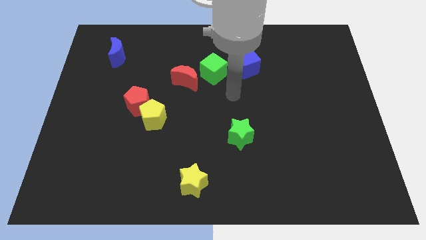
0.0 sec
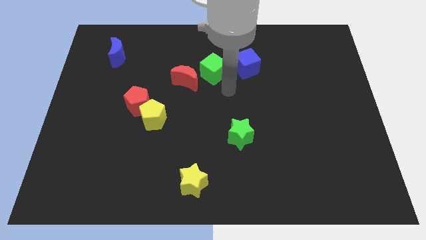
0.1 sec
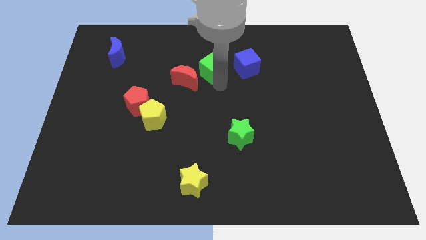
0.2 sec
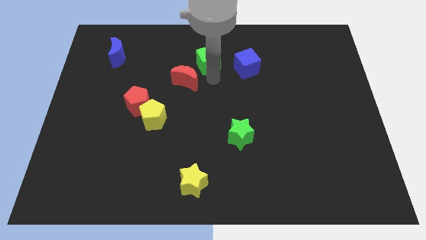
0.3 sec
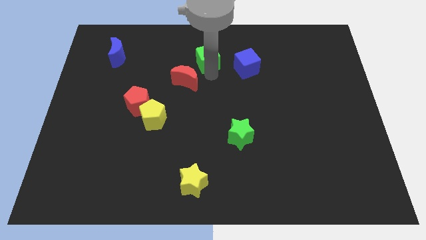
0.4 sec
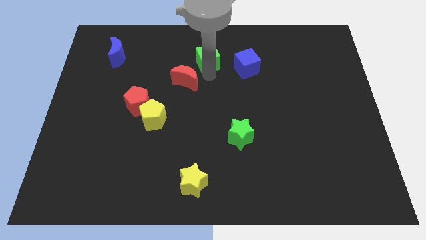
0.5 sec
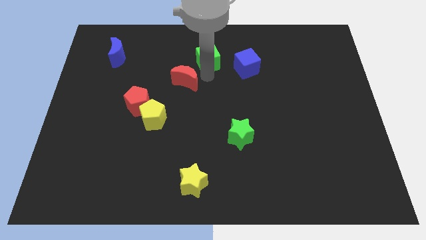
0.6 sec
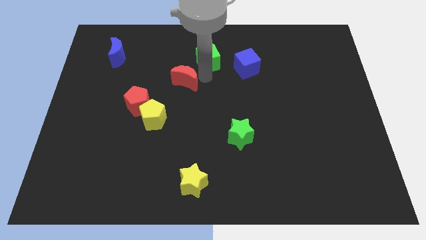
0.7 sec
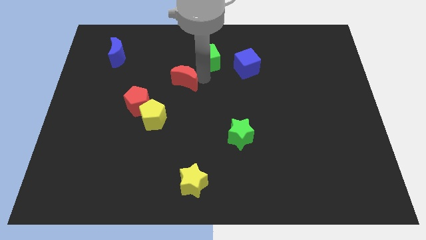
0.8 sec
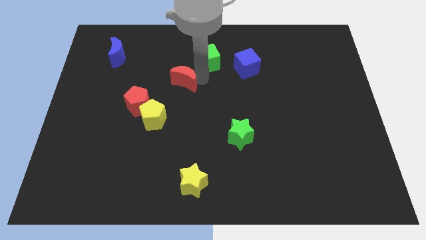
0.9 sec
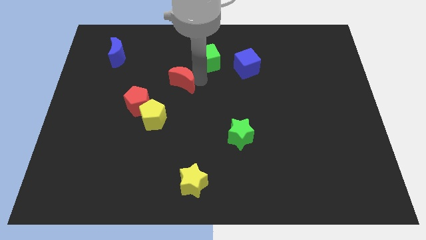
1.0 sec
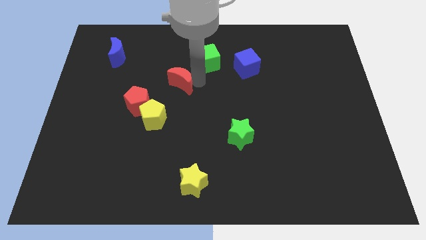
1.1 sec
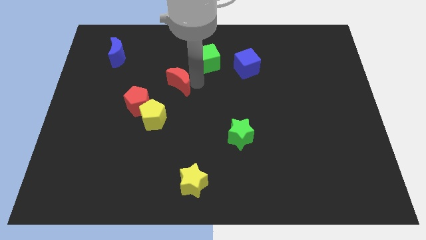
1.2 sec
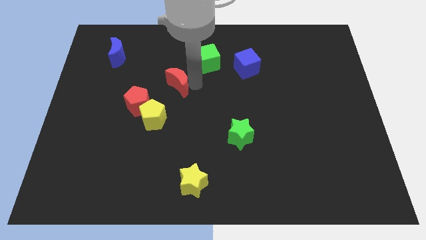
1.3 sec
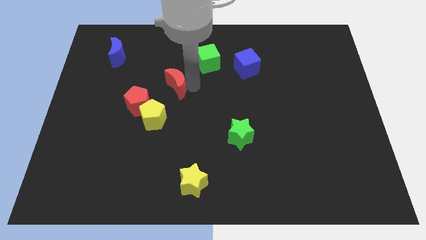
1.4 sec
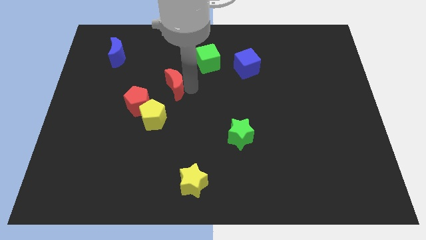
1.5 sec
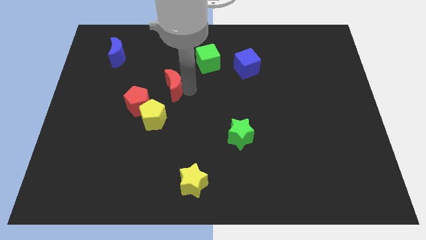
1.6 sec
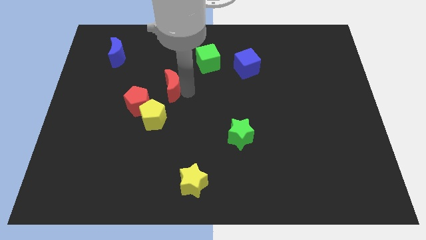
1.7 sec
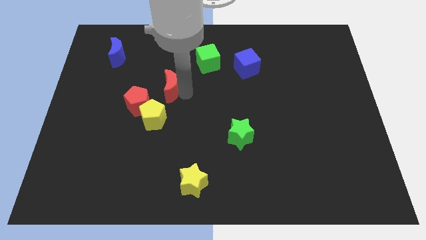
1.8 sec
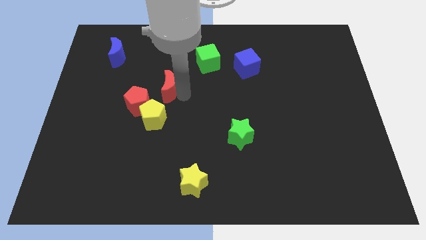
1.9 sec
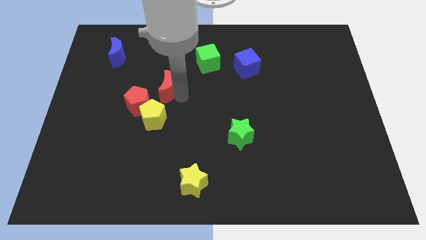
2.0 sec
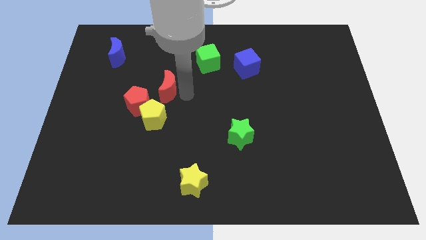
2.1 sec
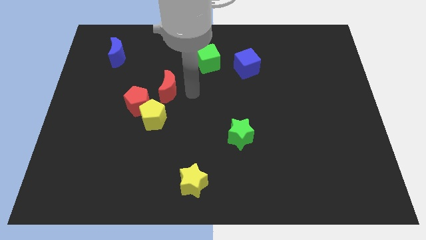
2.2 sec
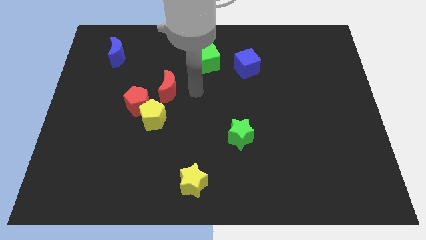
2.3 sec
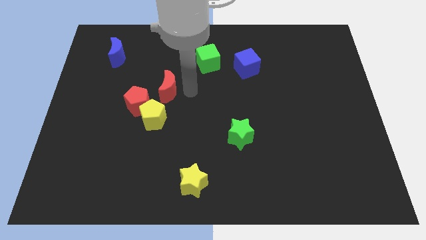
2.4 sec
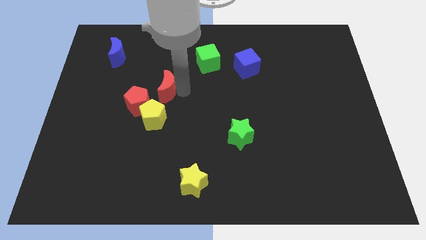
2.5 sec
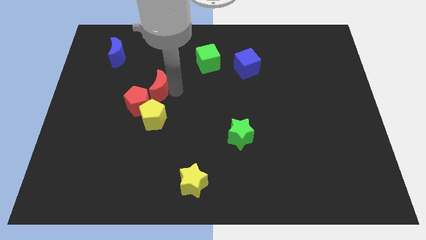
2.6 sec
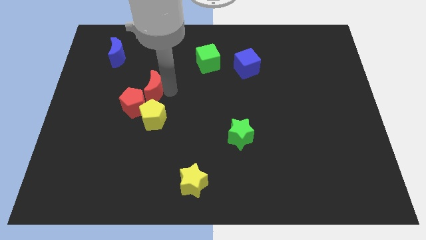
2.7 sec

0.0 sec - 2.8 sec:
push the red moon somewhat downwards and then to the left

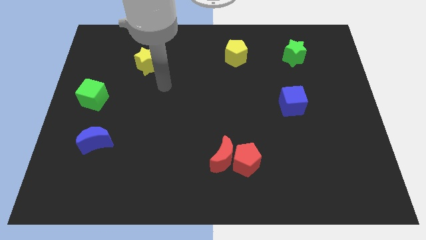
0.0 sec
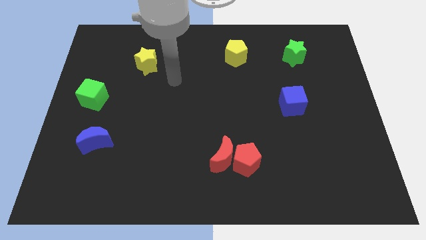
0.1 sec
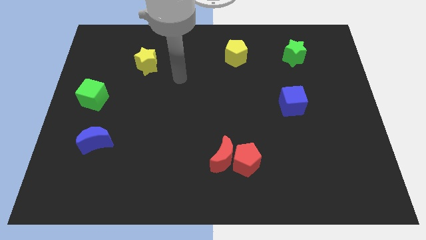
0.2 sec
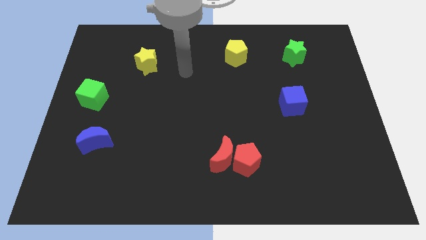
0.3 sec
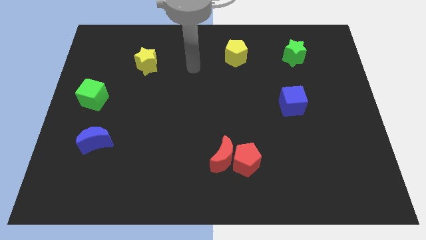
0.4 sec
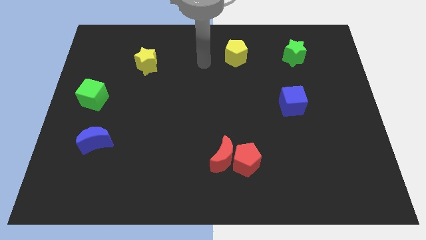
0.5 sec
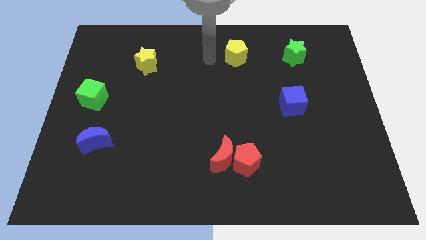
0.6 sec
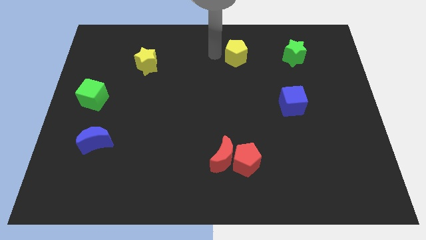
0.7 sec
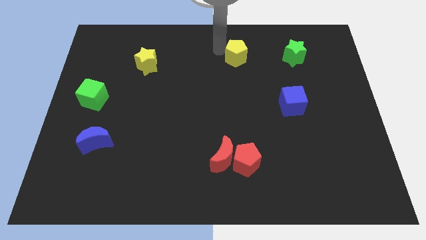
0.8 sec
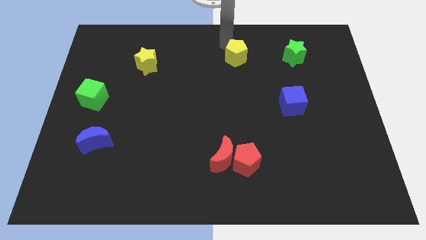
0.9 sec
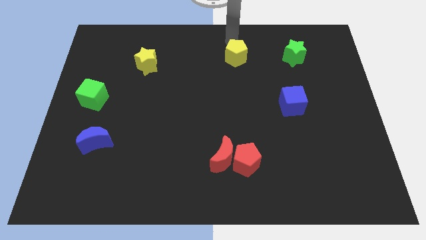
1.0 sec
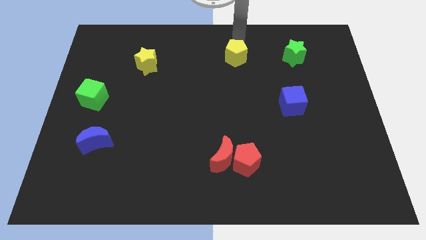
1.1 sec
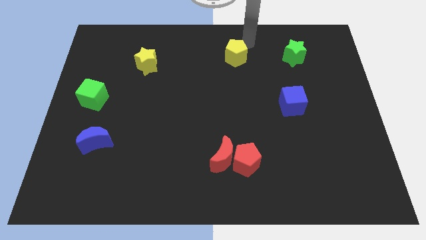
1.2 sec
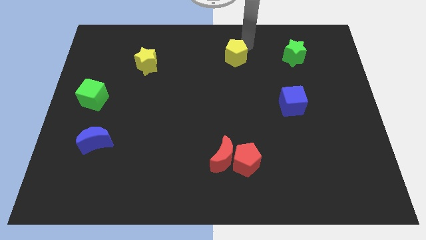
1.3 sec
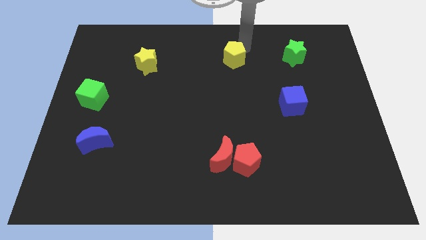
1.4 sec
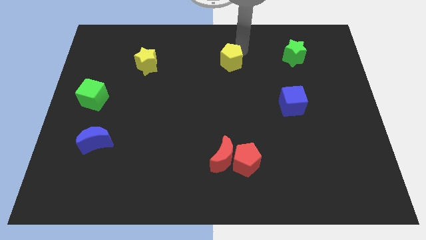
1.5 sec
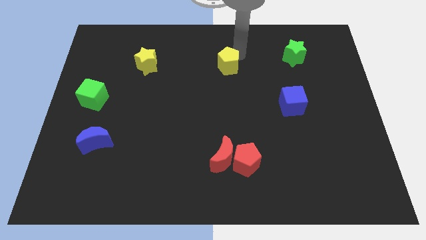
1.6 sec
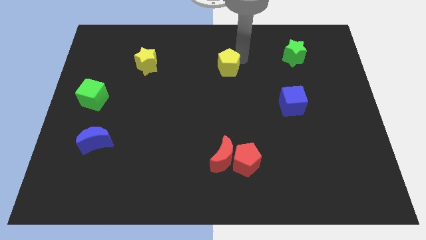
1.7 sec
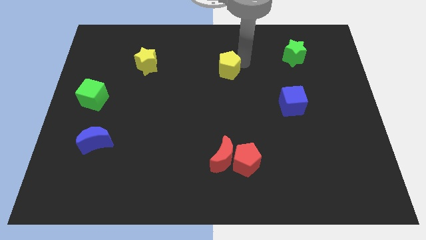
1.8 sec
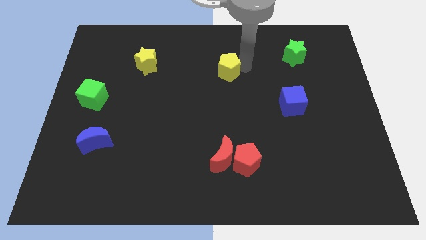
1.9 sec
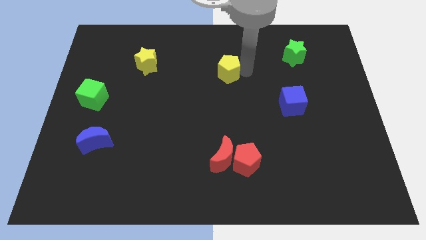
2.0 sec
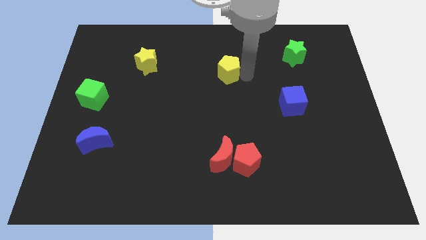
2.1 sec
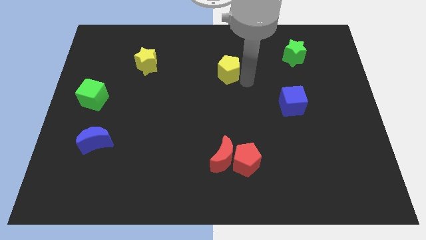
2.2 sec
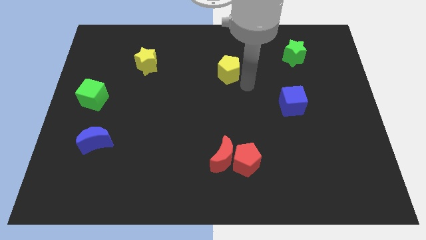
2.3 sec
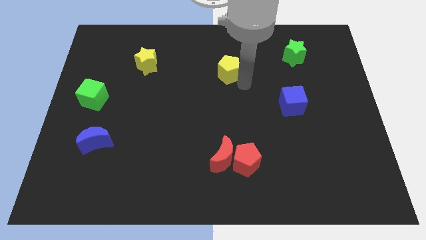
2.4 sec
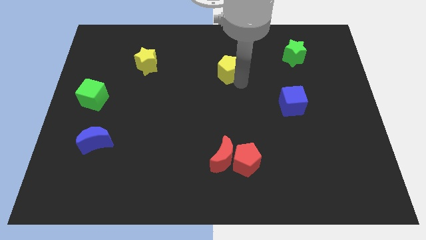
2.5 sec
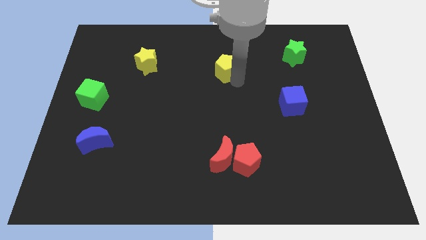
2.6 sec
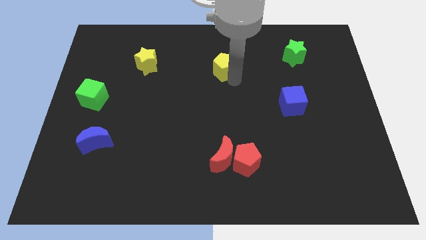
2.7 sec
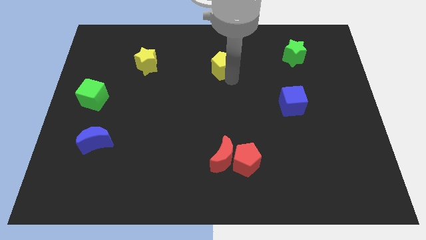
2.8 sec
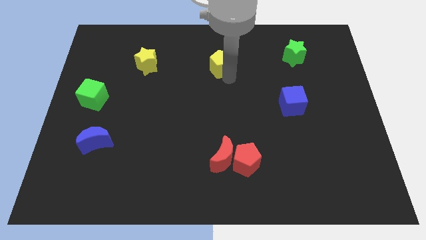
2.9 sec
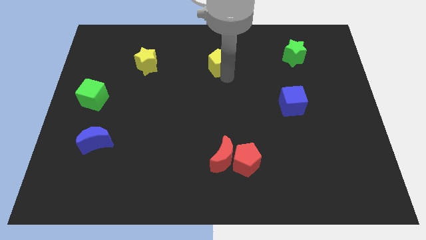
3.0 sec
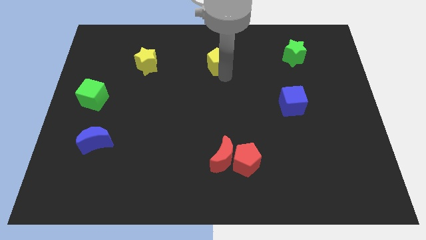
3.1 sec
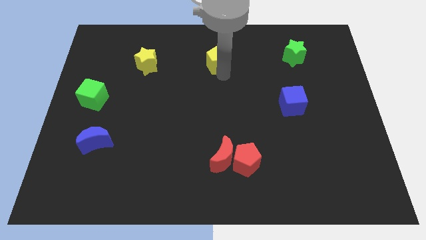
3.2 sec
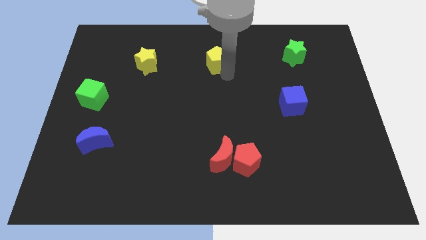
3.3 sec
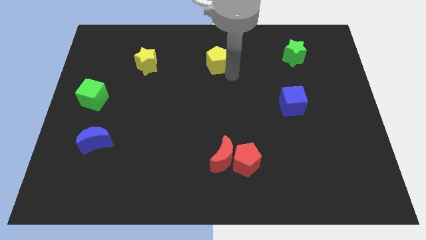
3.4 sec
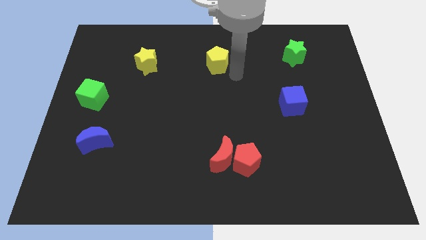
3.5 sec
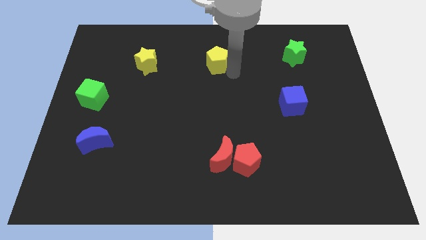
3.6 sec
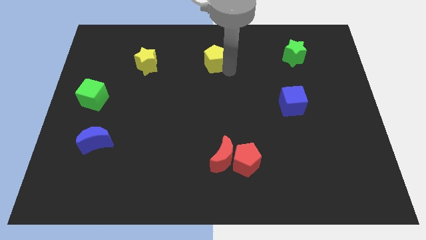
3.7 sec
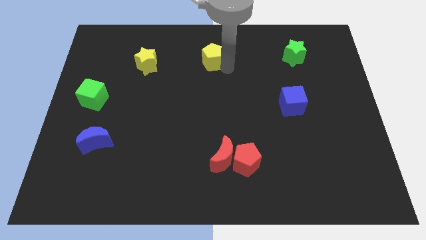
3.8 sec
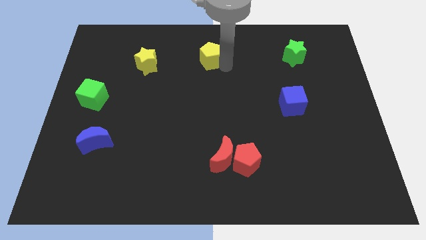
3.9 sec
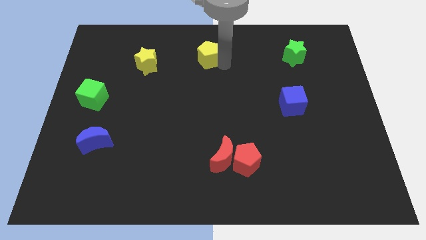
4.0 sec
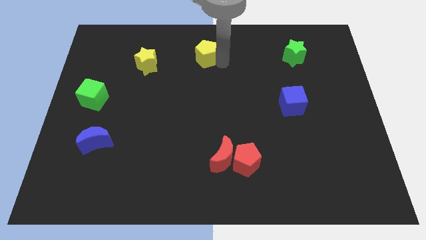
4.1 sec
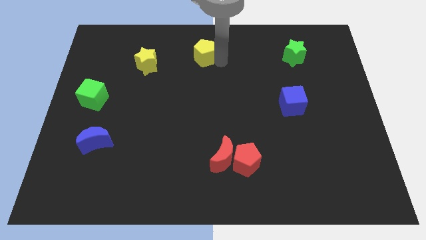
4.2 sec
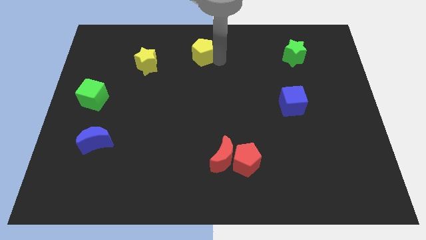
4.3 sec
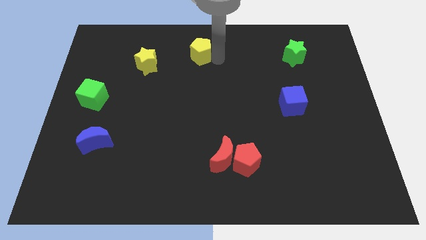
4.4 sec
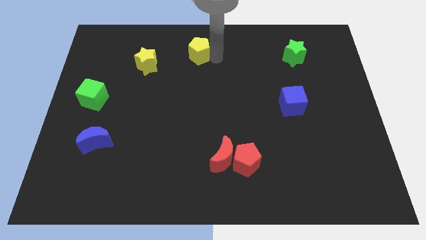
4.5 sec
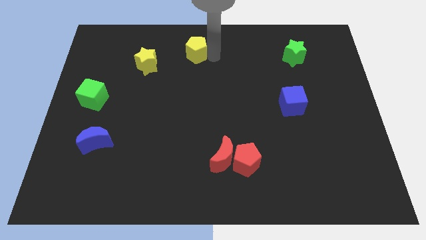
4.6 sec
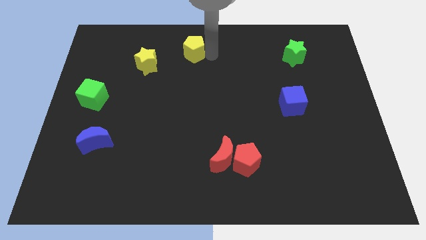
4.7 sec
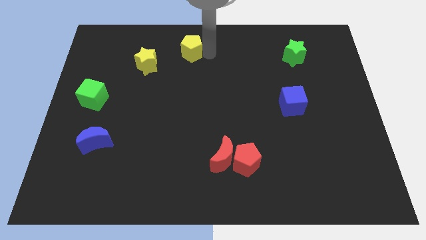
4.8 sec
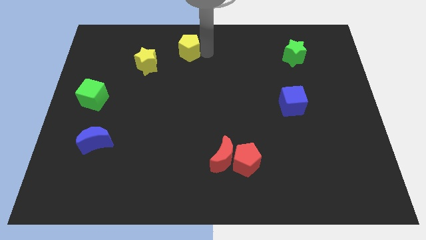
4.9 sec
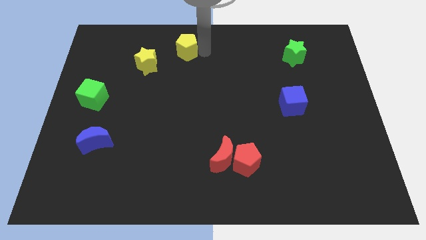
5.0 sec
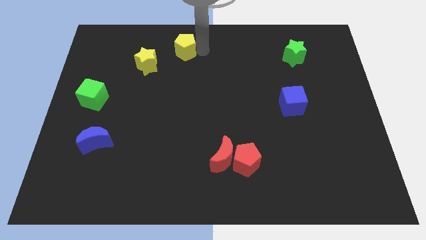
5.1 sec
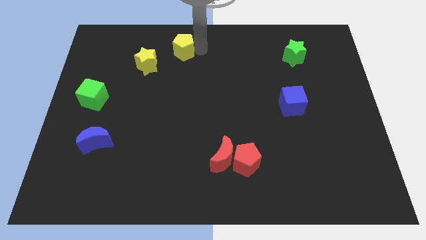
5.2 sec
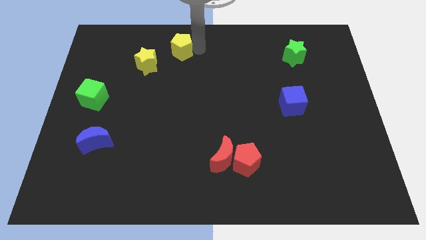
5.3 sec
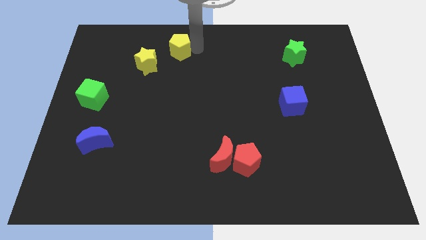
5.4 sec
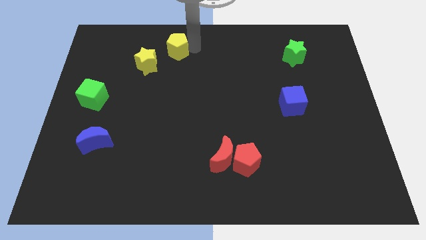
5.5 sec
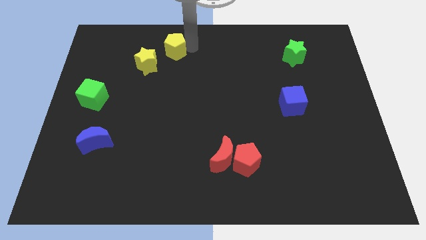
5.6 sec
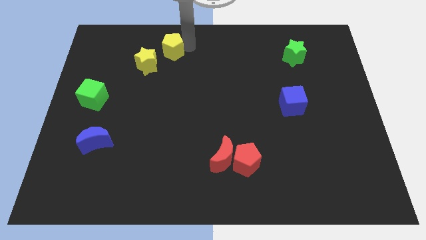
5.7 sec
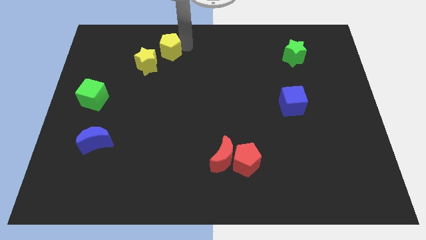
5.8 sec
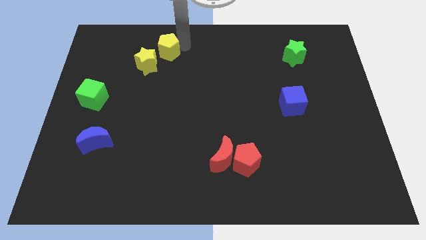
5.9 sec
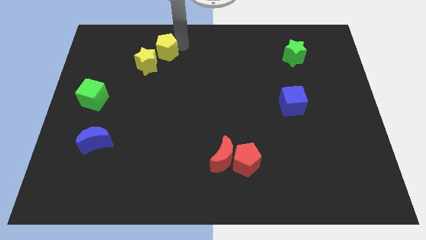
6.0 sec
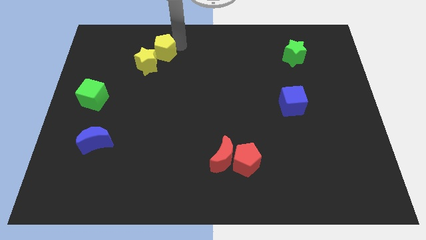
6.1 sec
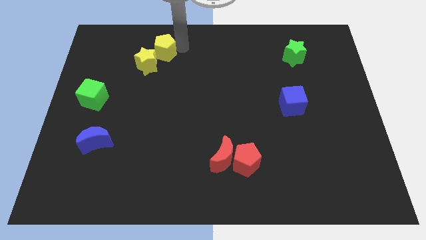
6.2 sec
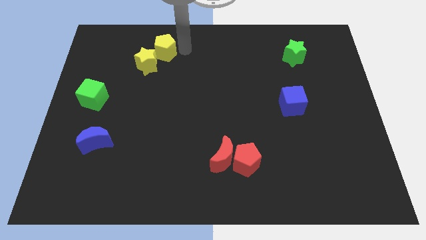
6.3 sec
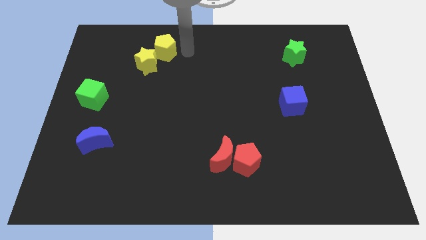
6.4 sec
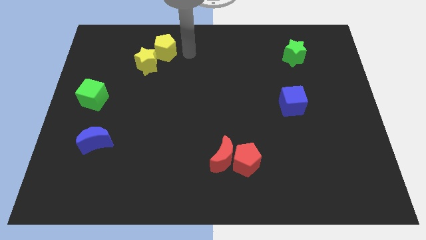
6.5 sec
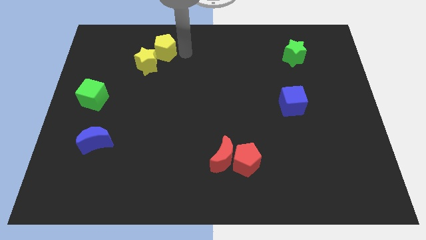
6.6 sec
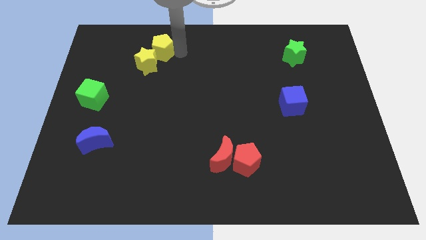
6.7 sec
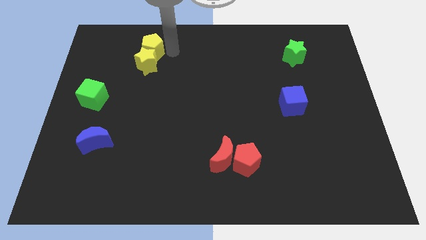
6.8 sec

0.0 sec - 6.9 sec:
slide the yellow pentagon left
